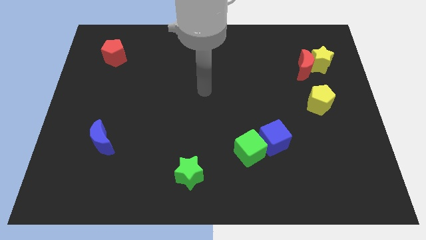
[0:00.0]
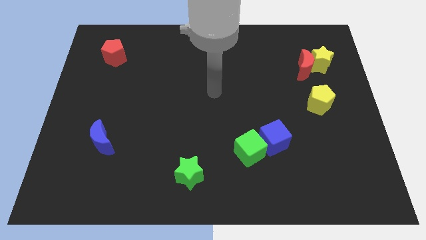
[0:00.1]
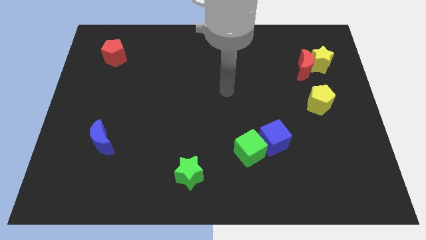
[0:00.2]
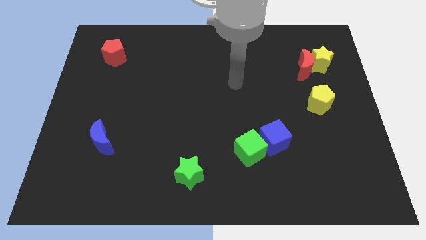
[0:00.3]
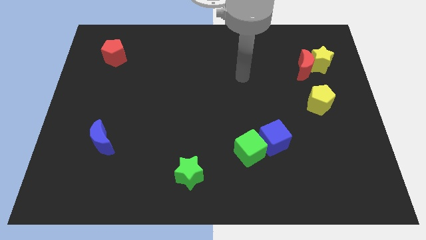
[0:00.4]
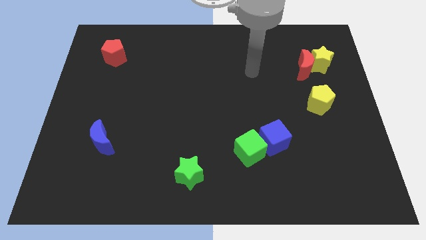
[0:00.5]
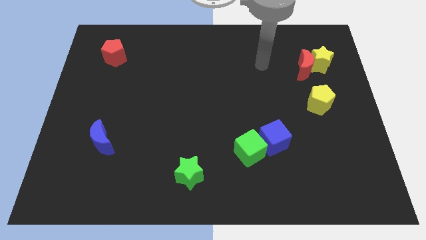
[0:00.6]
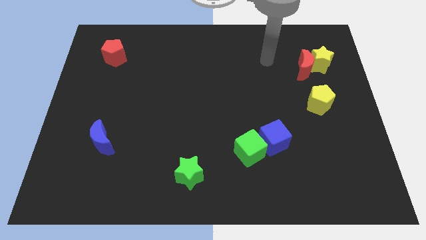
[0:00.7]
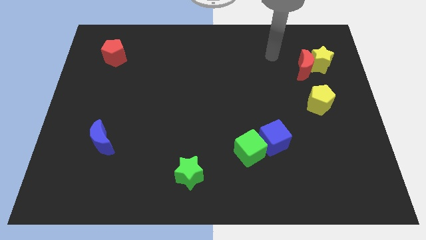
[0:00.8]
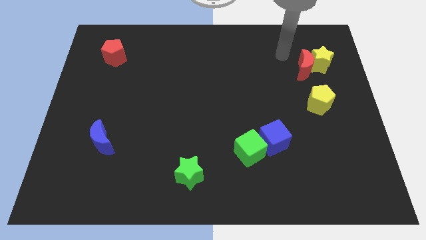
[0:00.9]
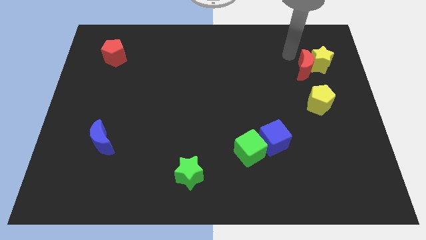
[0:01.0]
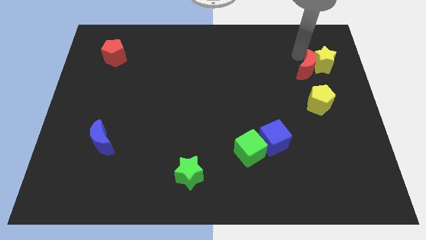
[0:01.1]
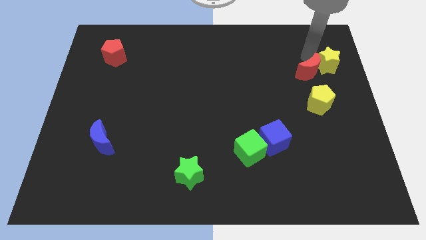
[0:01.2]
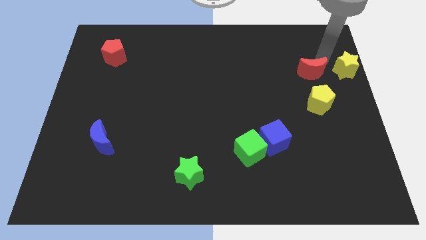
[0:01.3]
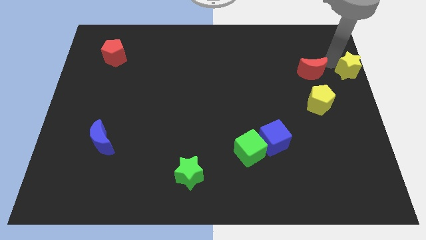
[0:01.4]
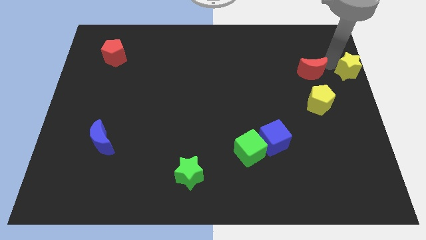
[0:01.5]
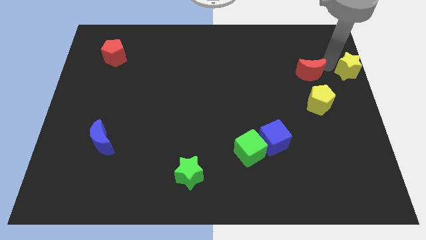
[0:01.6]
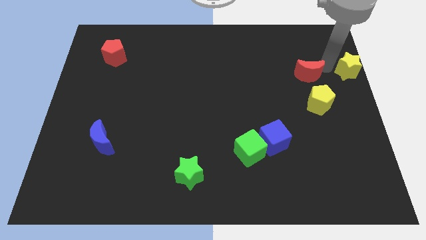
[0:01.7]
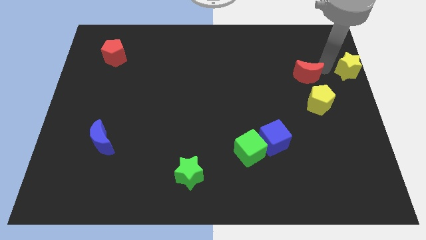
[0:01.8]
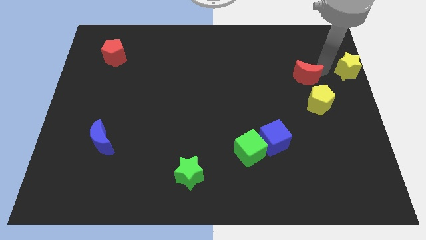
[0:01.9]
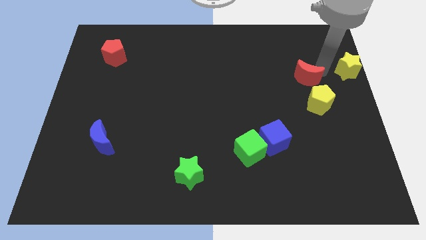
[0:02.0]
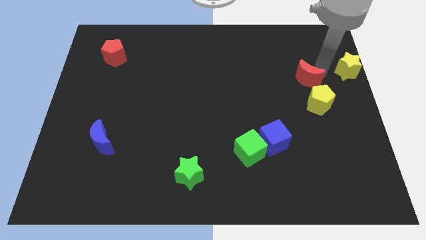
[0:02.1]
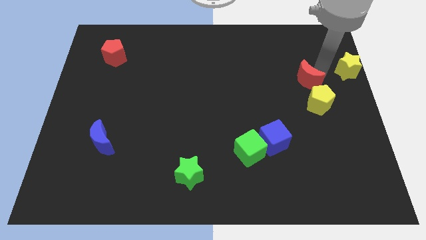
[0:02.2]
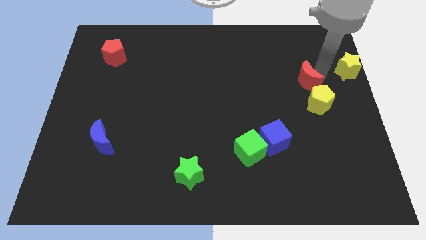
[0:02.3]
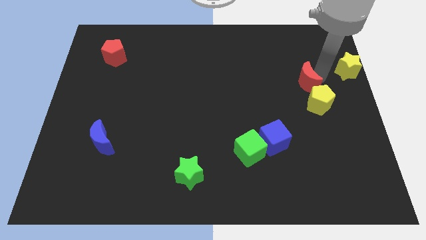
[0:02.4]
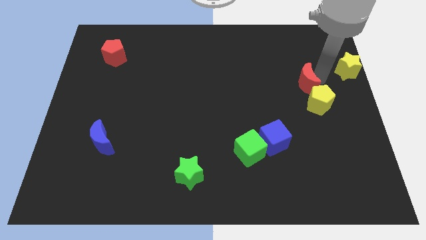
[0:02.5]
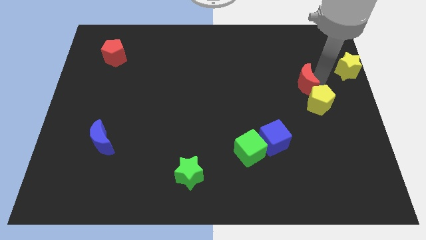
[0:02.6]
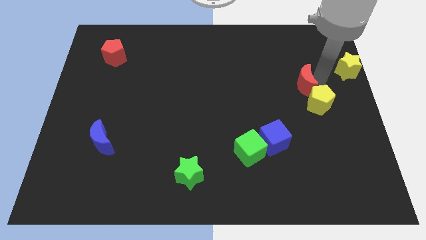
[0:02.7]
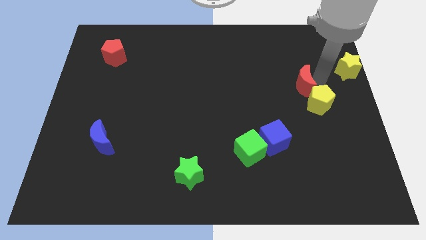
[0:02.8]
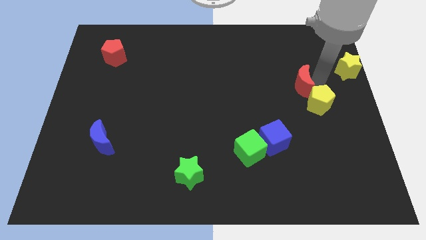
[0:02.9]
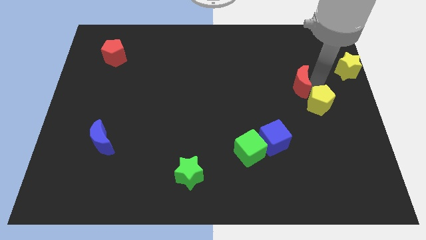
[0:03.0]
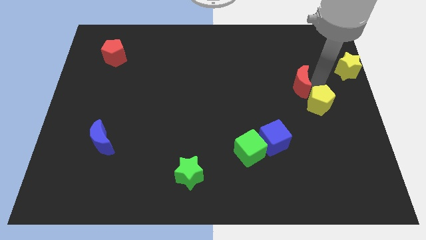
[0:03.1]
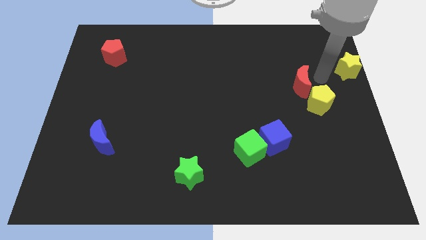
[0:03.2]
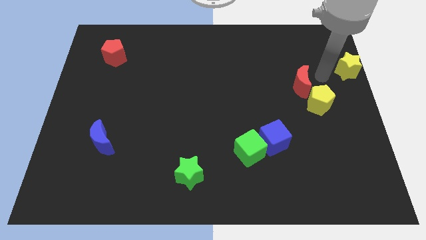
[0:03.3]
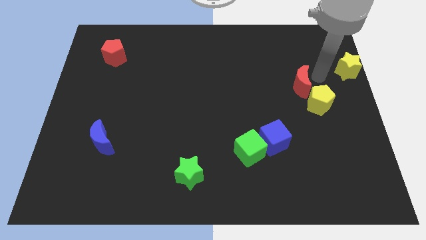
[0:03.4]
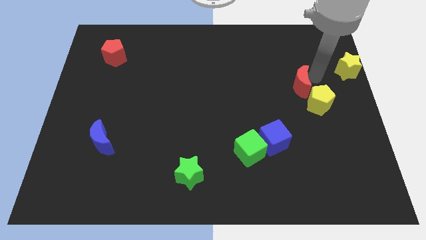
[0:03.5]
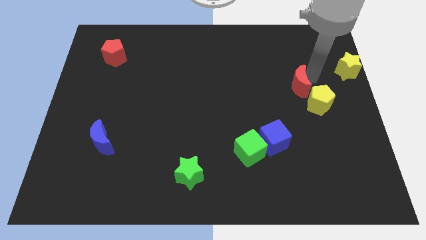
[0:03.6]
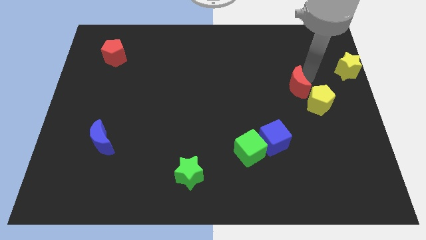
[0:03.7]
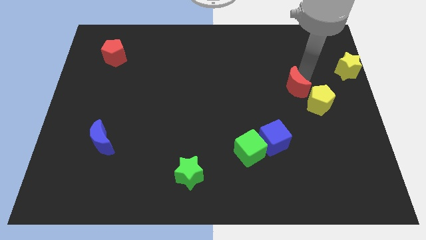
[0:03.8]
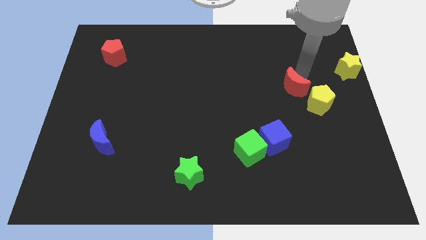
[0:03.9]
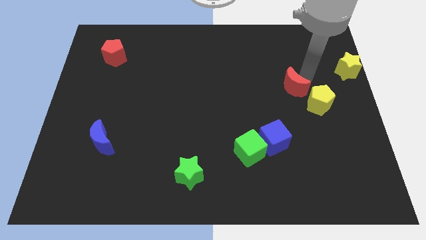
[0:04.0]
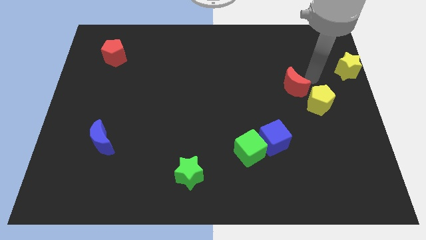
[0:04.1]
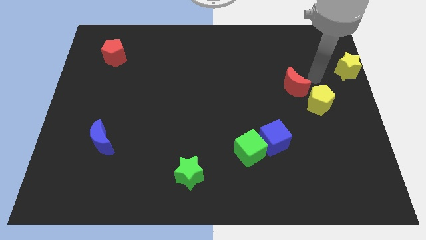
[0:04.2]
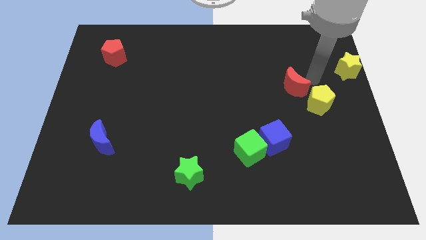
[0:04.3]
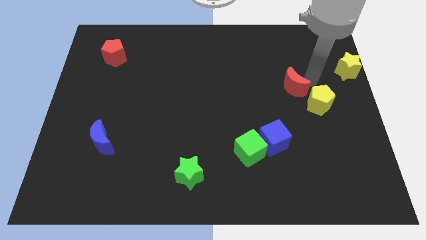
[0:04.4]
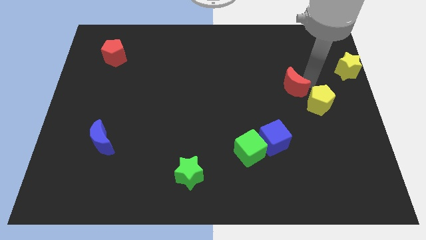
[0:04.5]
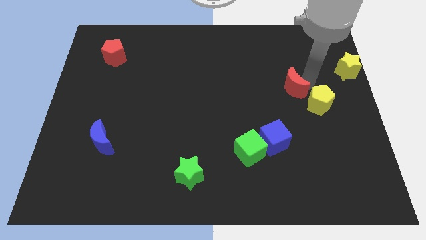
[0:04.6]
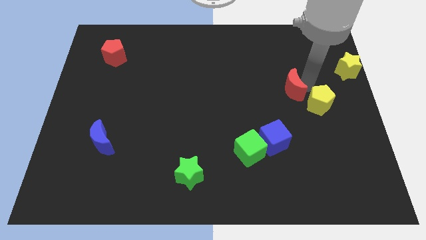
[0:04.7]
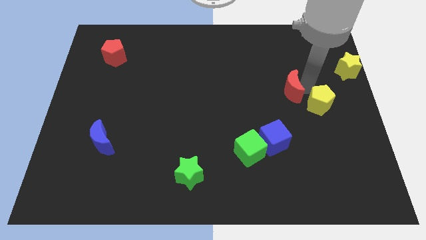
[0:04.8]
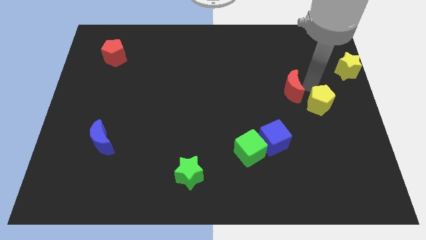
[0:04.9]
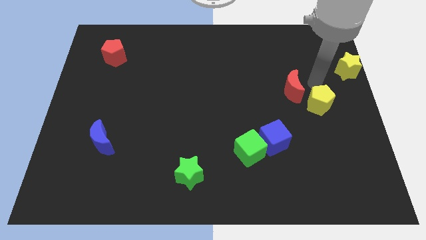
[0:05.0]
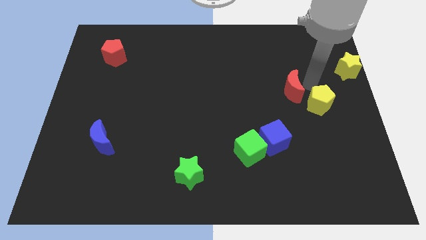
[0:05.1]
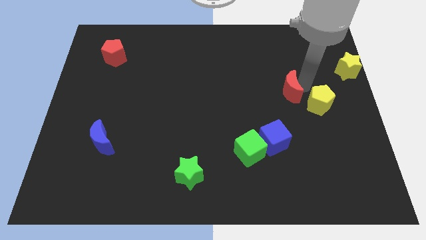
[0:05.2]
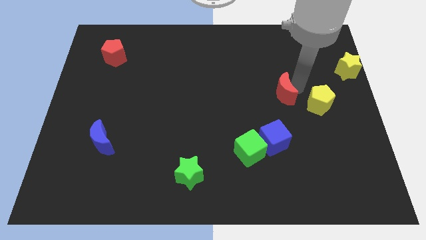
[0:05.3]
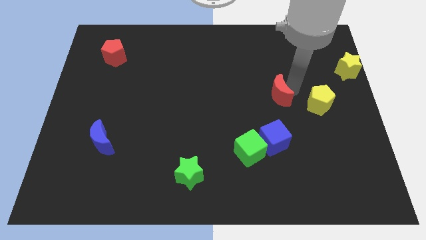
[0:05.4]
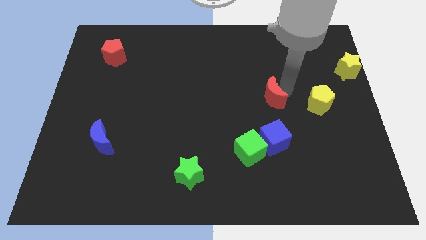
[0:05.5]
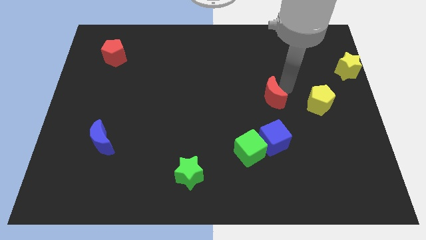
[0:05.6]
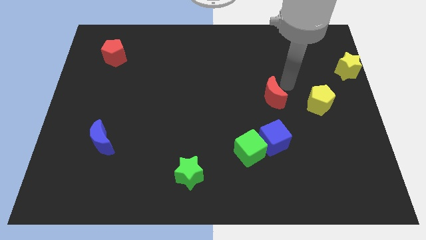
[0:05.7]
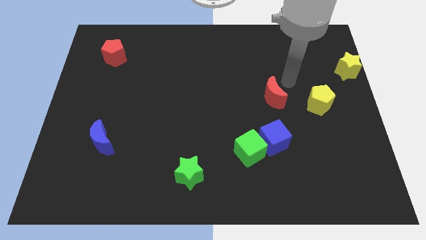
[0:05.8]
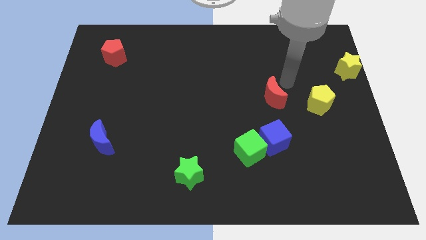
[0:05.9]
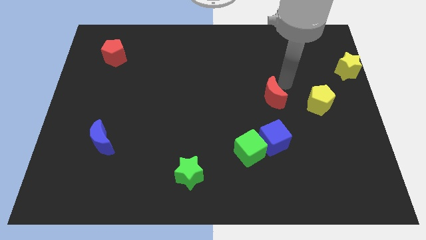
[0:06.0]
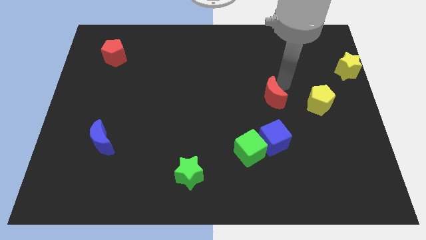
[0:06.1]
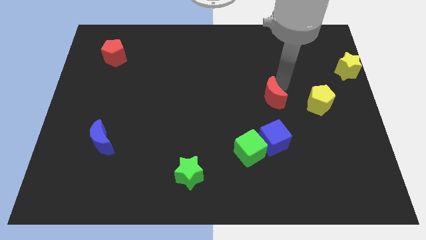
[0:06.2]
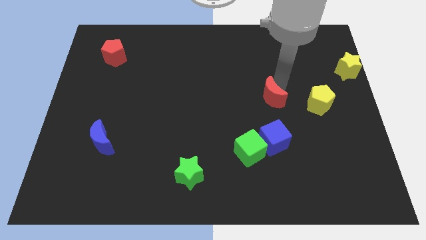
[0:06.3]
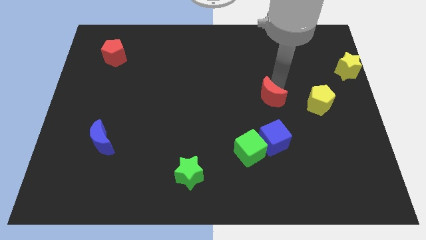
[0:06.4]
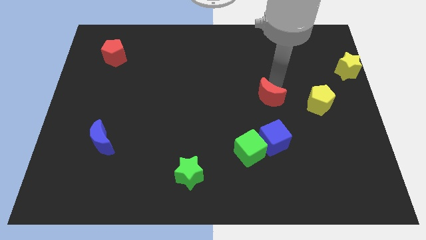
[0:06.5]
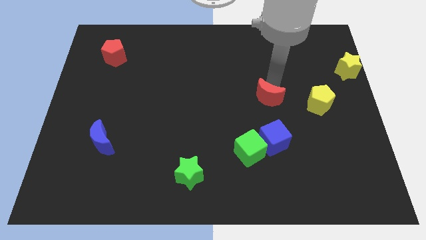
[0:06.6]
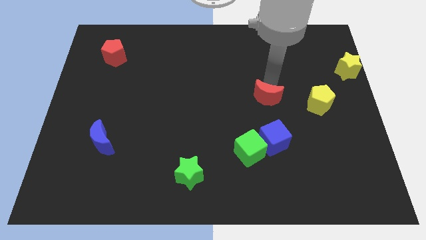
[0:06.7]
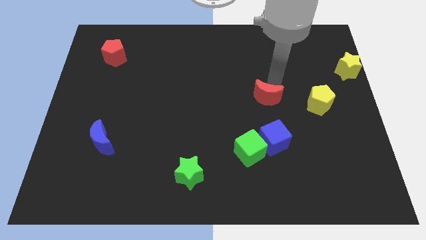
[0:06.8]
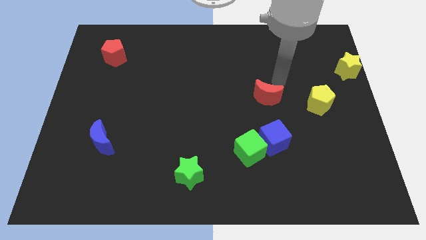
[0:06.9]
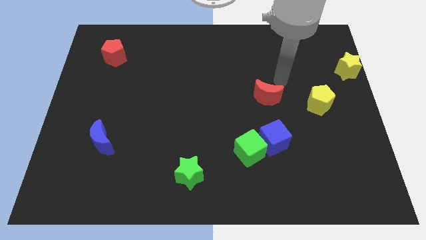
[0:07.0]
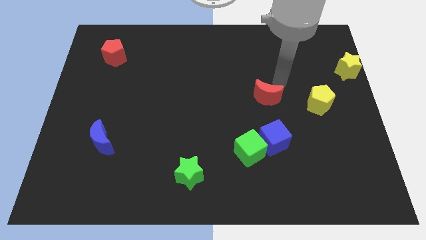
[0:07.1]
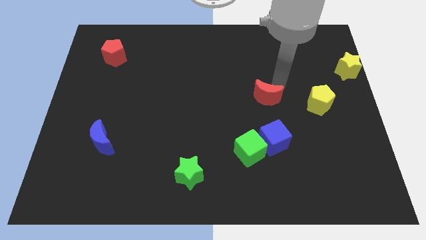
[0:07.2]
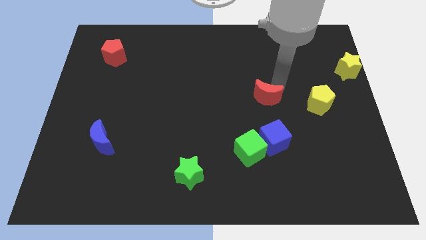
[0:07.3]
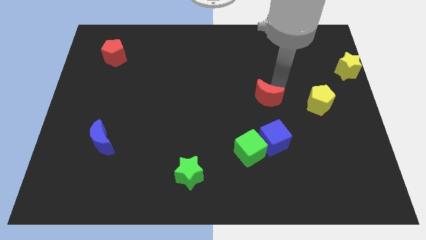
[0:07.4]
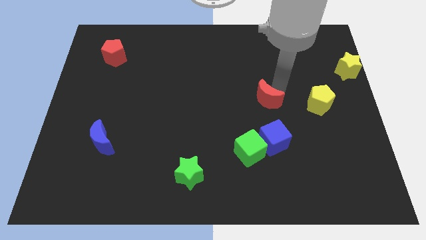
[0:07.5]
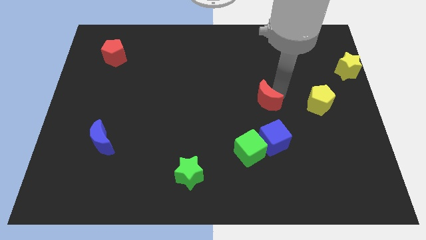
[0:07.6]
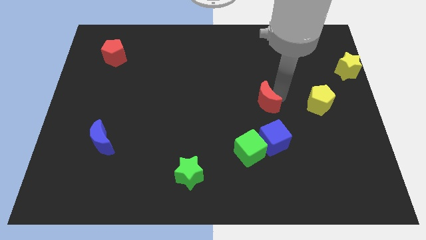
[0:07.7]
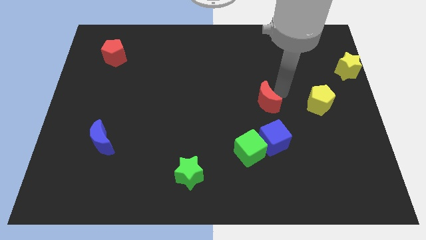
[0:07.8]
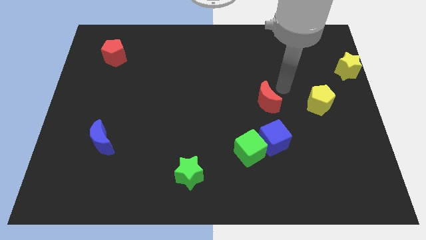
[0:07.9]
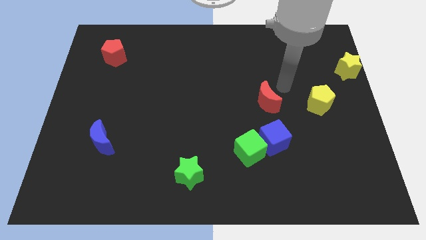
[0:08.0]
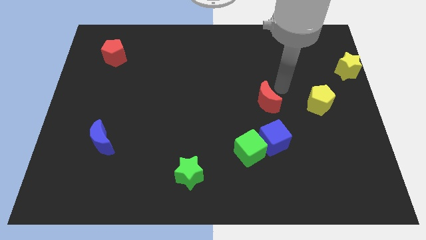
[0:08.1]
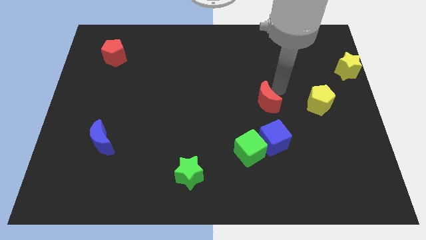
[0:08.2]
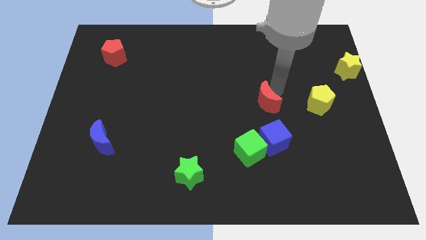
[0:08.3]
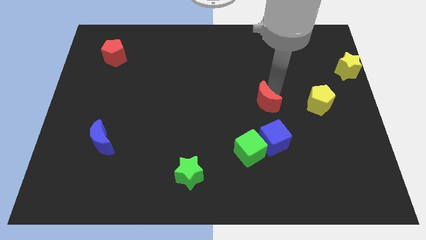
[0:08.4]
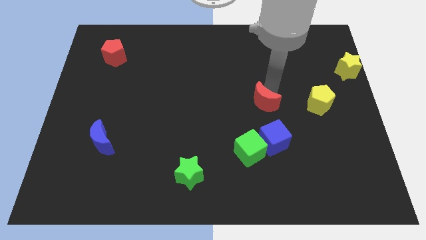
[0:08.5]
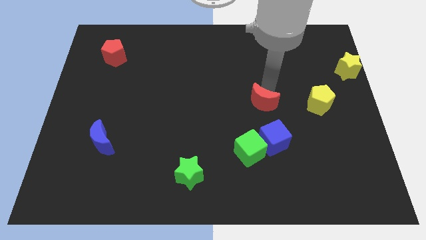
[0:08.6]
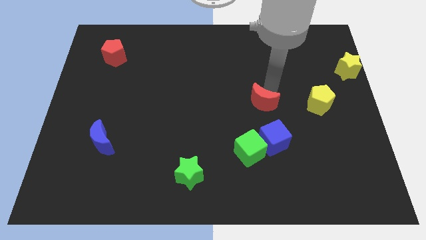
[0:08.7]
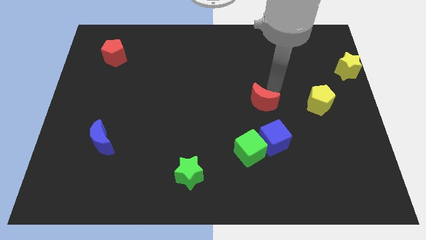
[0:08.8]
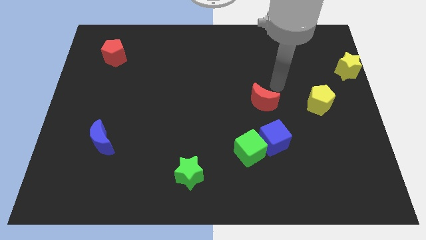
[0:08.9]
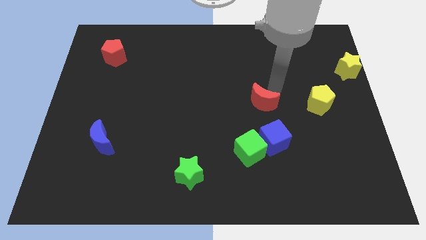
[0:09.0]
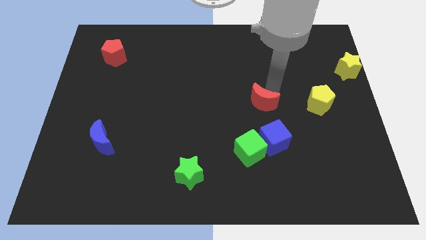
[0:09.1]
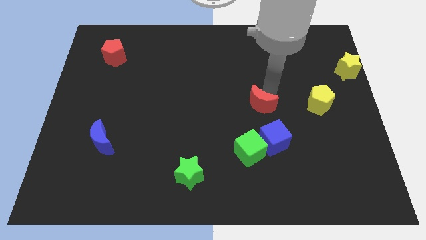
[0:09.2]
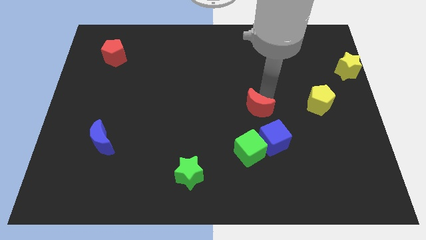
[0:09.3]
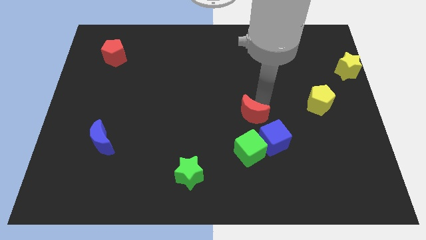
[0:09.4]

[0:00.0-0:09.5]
move the red moon downwards and left
